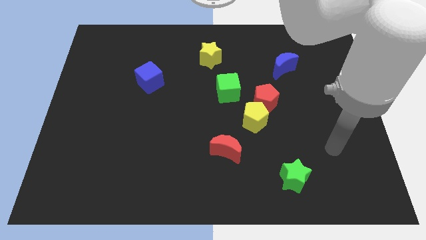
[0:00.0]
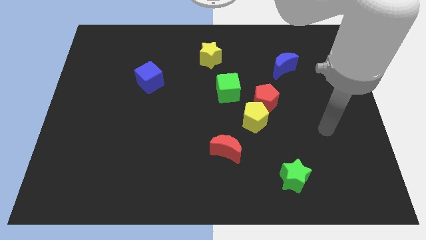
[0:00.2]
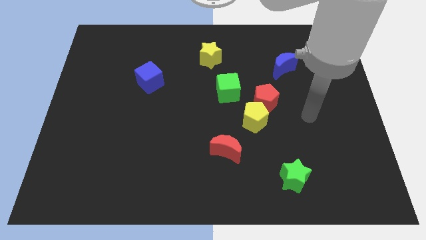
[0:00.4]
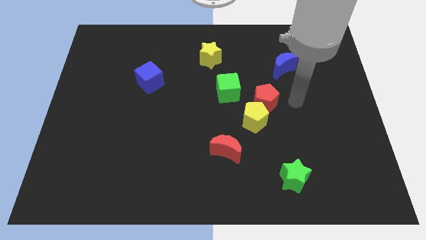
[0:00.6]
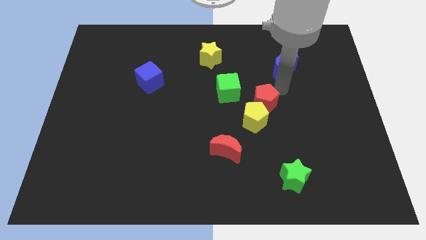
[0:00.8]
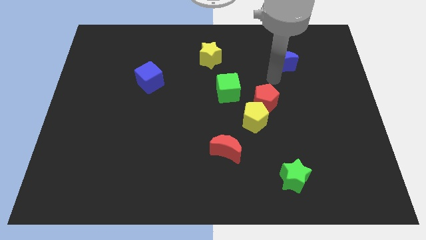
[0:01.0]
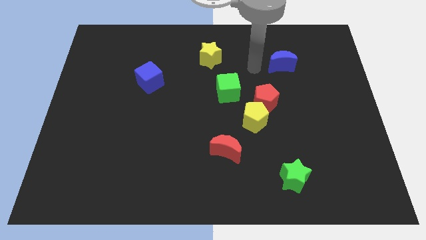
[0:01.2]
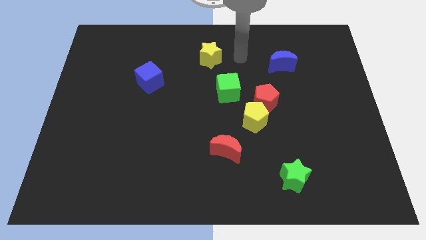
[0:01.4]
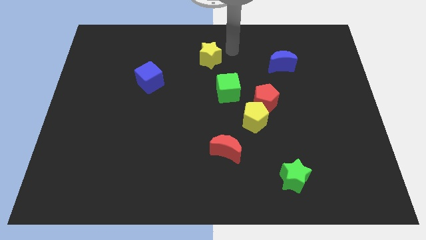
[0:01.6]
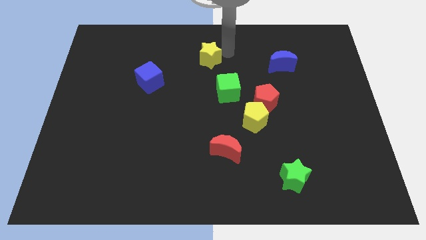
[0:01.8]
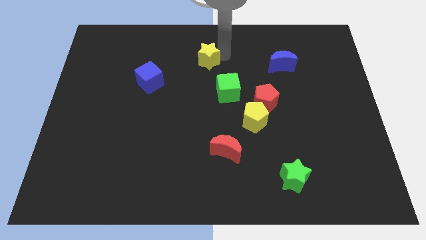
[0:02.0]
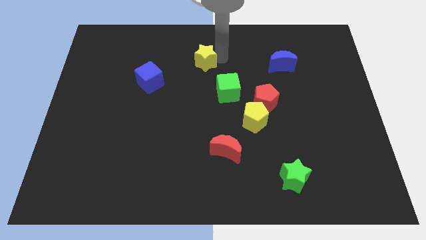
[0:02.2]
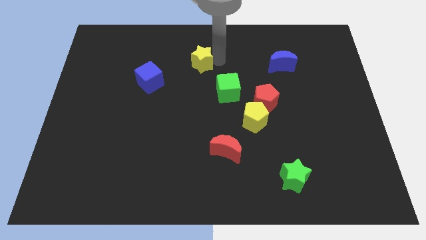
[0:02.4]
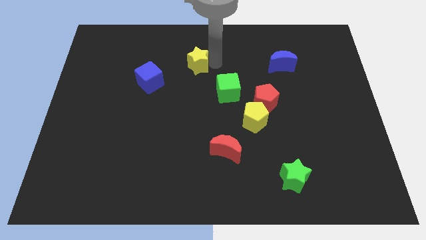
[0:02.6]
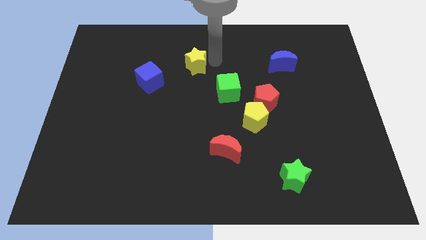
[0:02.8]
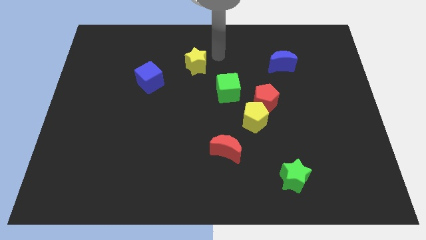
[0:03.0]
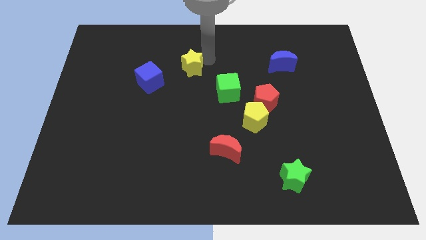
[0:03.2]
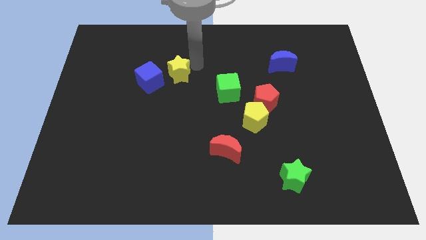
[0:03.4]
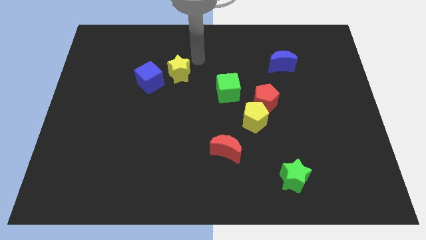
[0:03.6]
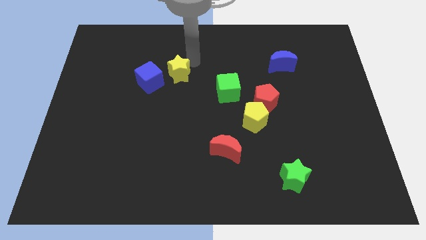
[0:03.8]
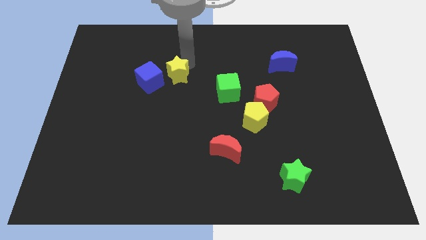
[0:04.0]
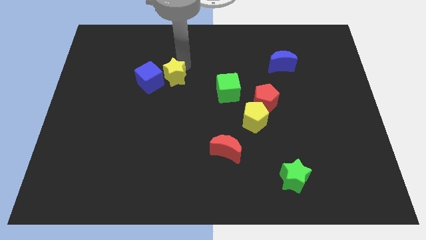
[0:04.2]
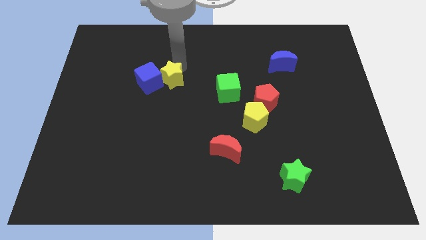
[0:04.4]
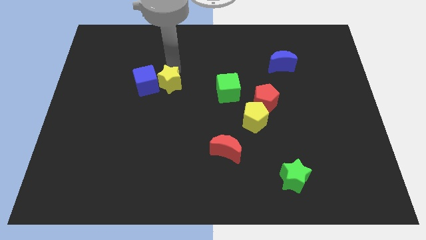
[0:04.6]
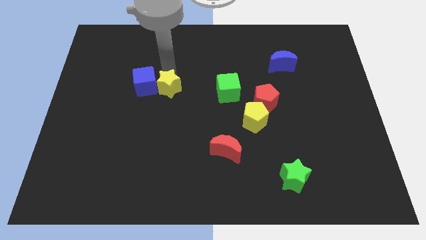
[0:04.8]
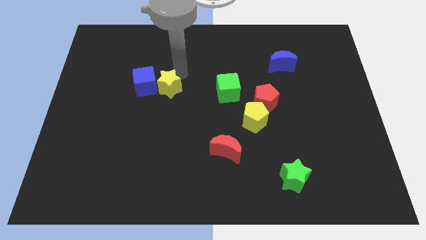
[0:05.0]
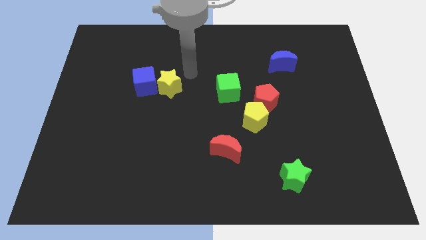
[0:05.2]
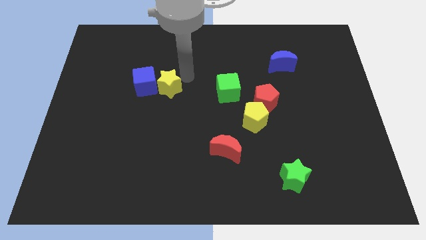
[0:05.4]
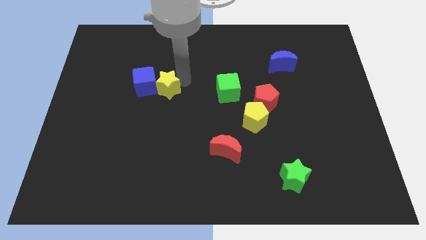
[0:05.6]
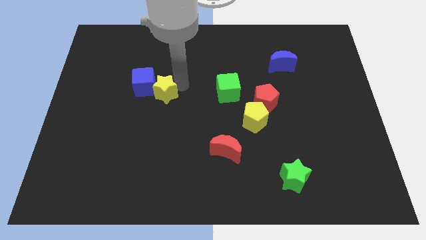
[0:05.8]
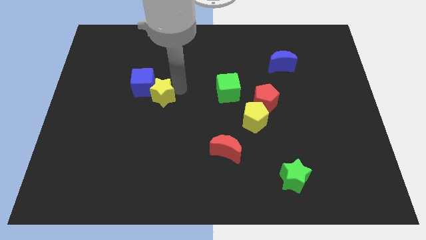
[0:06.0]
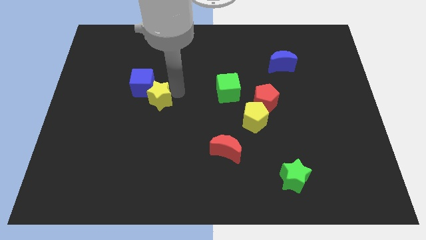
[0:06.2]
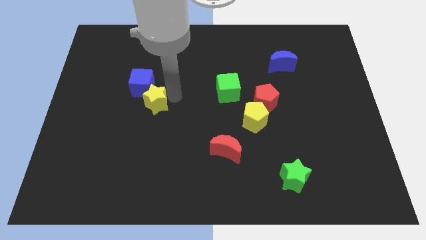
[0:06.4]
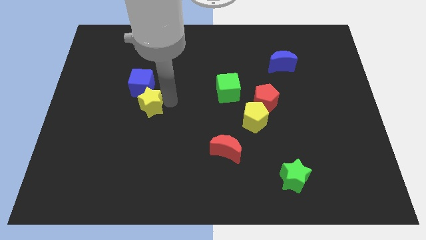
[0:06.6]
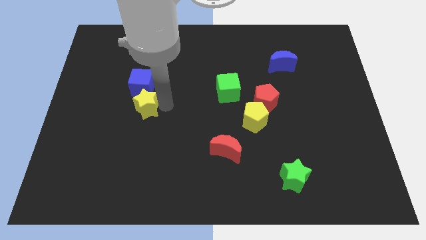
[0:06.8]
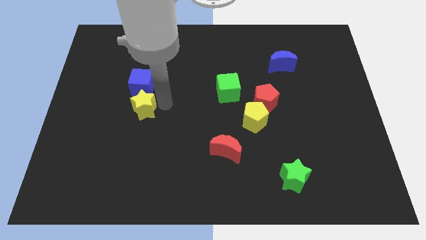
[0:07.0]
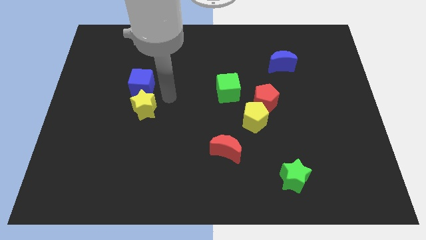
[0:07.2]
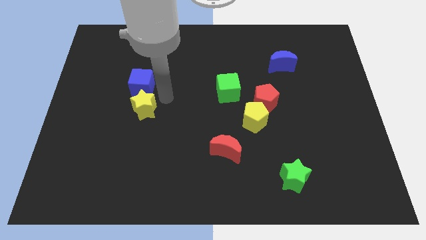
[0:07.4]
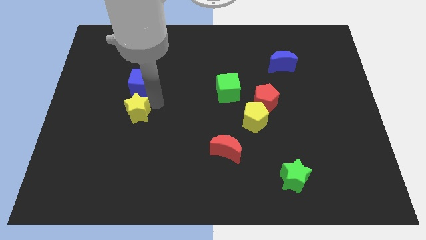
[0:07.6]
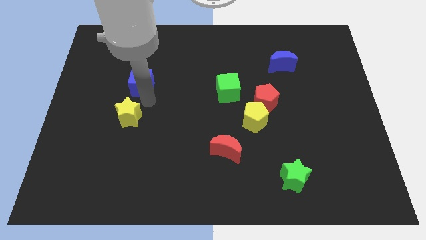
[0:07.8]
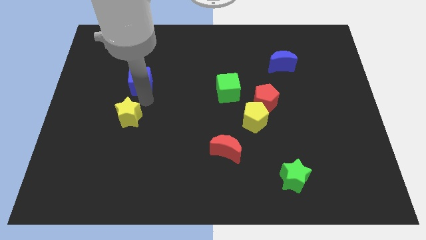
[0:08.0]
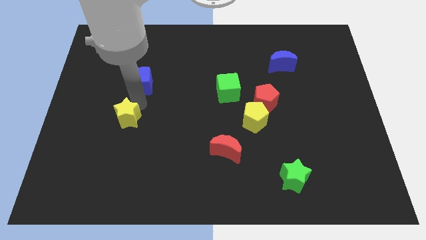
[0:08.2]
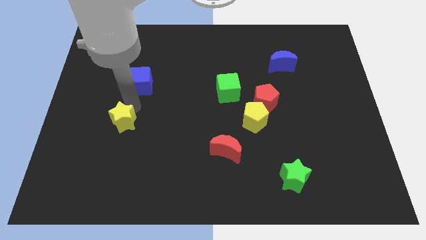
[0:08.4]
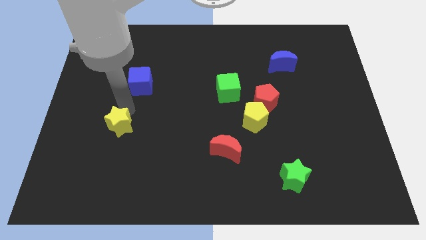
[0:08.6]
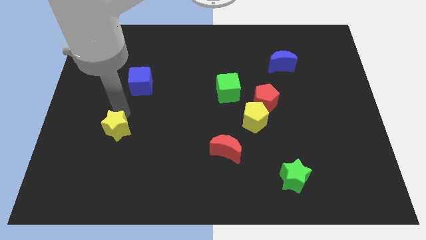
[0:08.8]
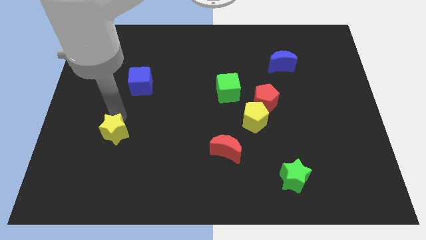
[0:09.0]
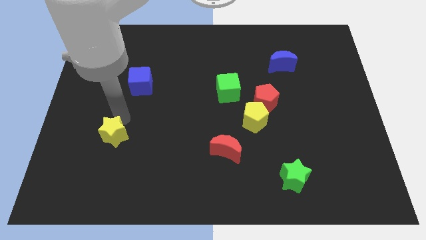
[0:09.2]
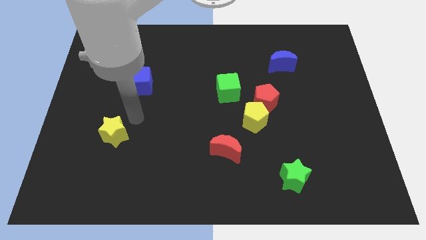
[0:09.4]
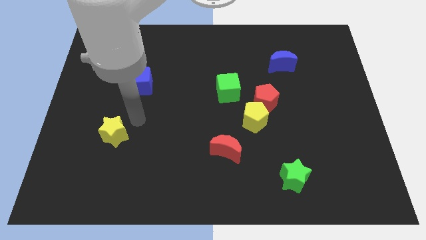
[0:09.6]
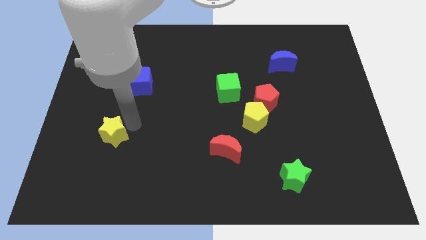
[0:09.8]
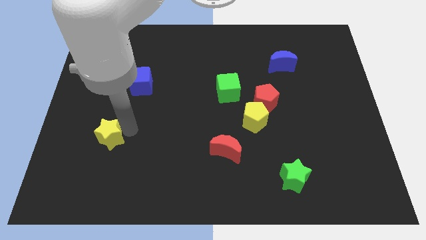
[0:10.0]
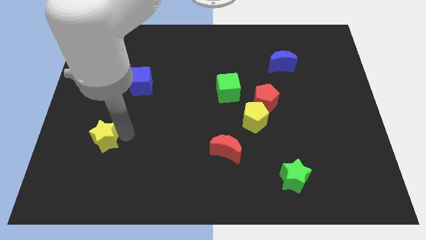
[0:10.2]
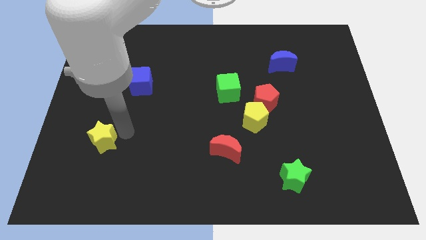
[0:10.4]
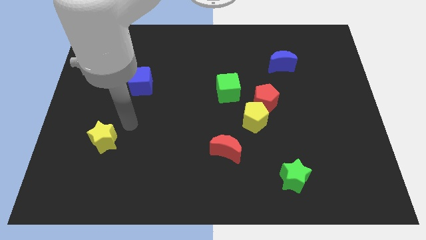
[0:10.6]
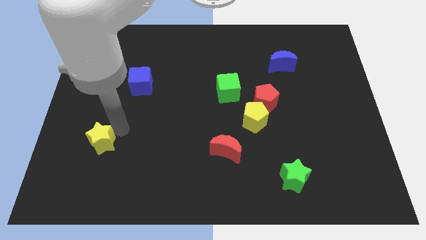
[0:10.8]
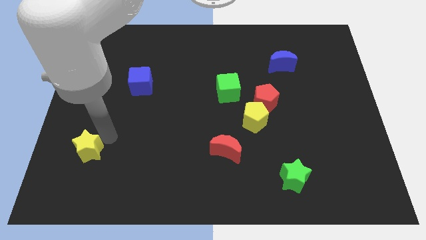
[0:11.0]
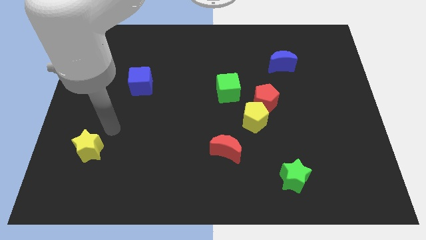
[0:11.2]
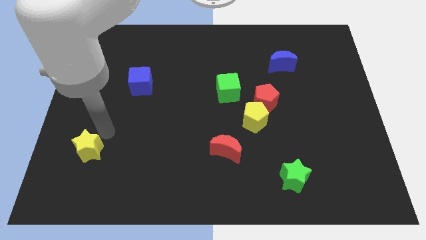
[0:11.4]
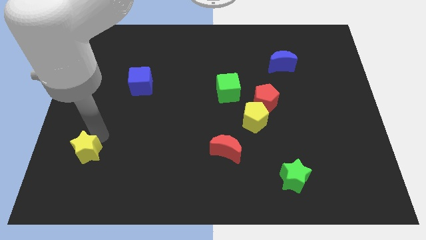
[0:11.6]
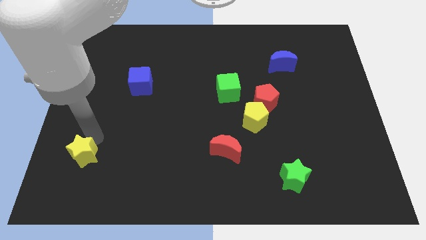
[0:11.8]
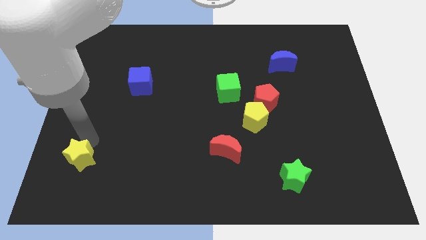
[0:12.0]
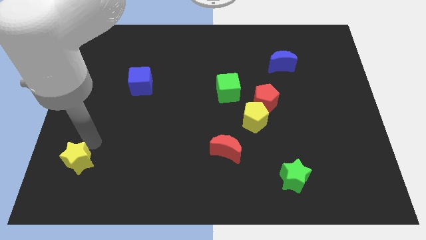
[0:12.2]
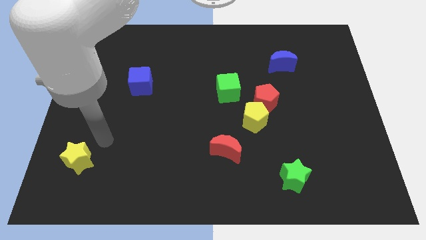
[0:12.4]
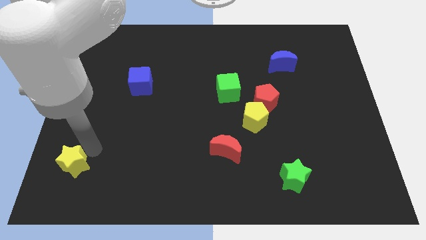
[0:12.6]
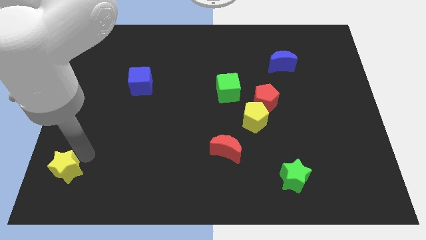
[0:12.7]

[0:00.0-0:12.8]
move the yellow star to the bottom left
